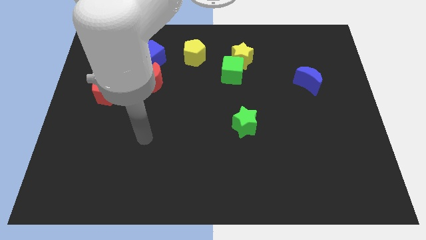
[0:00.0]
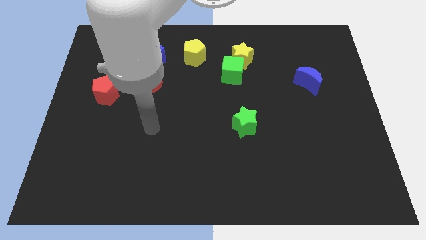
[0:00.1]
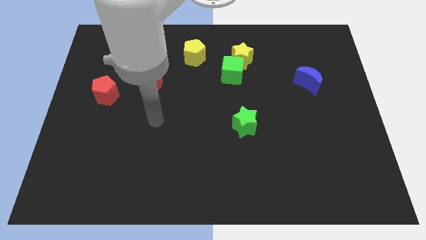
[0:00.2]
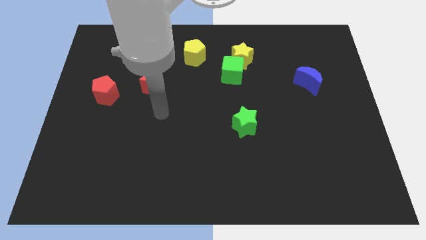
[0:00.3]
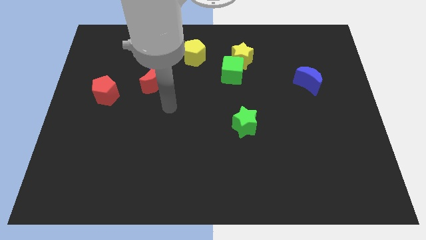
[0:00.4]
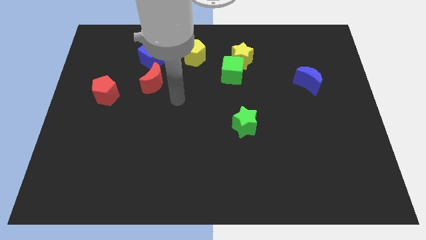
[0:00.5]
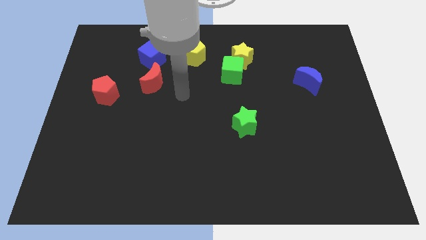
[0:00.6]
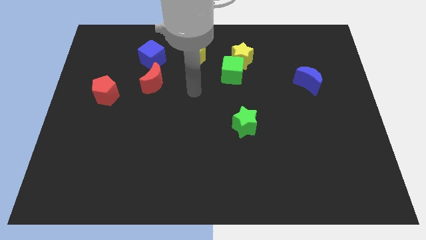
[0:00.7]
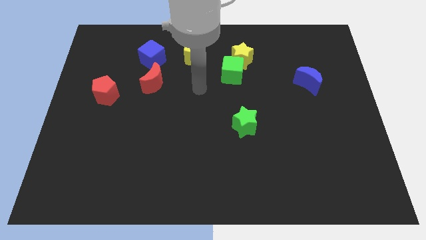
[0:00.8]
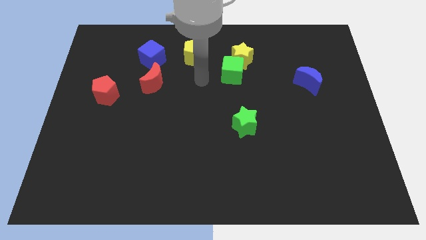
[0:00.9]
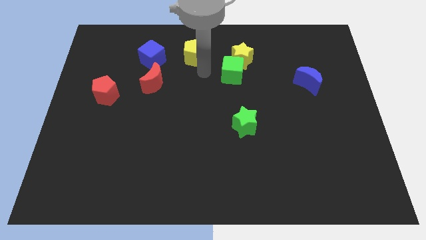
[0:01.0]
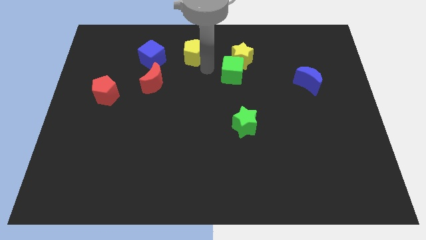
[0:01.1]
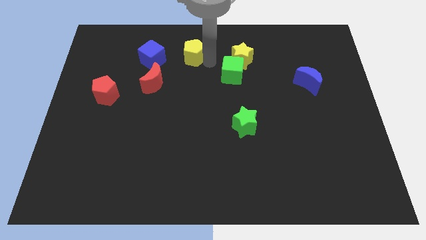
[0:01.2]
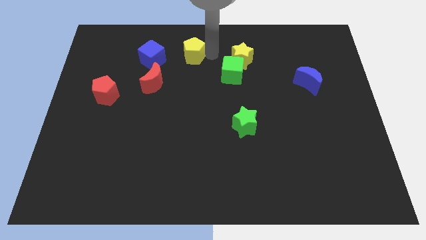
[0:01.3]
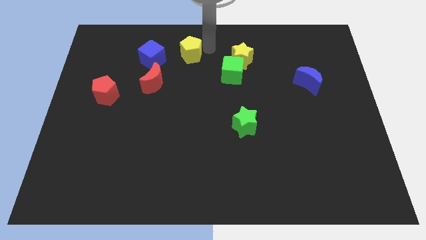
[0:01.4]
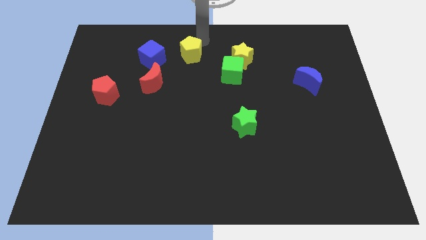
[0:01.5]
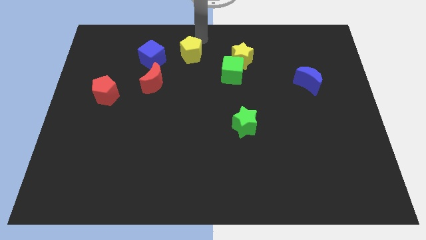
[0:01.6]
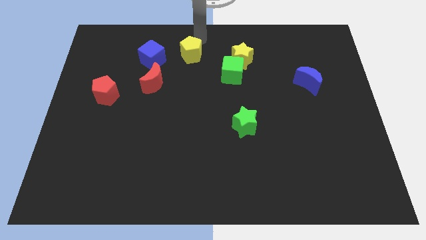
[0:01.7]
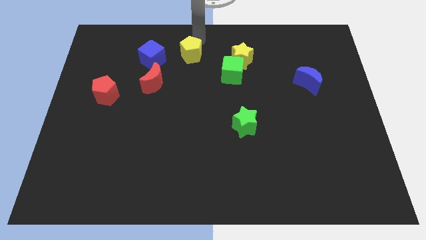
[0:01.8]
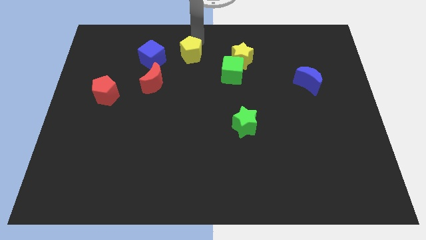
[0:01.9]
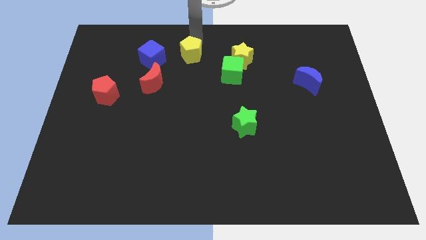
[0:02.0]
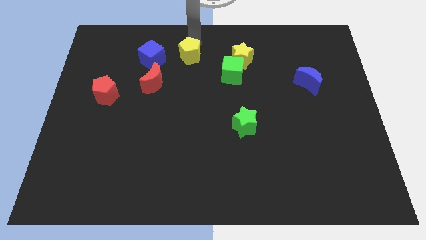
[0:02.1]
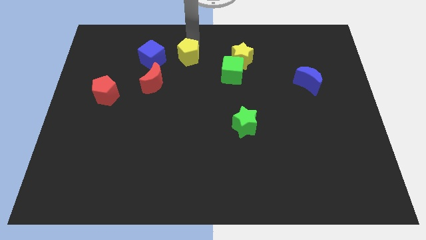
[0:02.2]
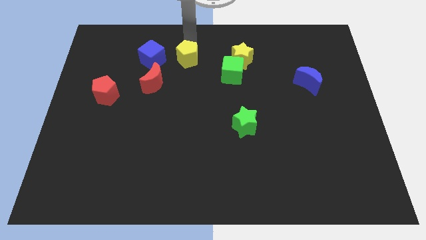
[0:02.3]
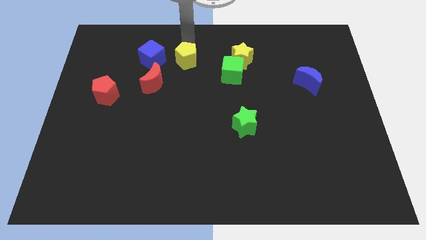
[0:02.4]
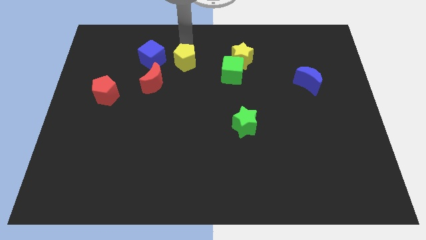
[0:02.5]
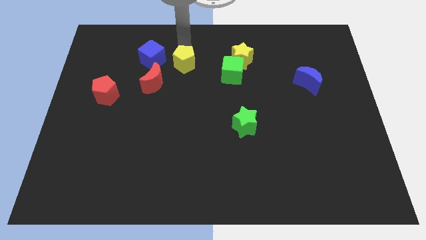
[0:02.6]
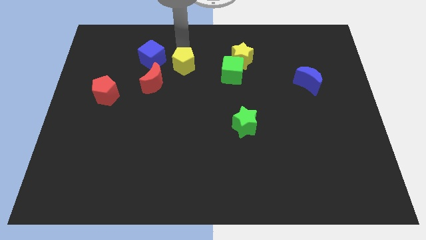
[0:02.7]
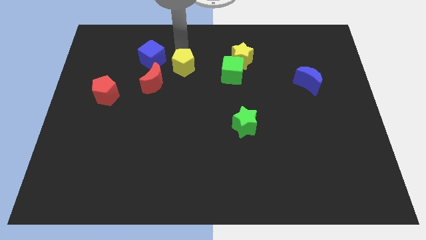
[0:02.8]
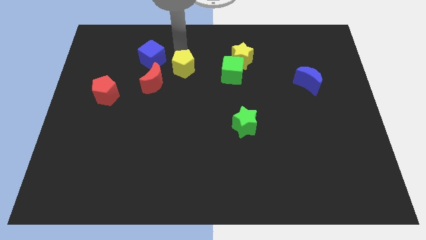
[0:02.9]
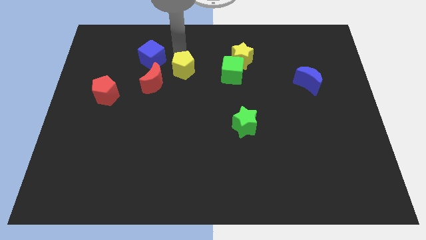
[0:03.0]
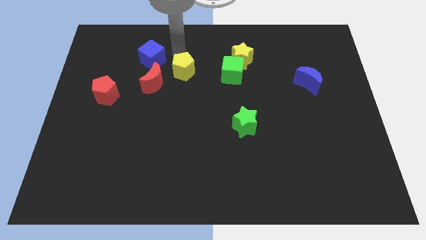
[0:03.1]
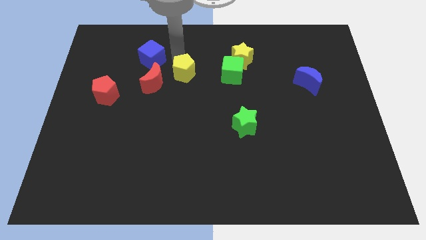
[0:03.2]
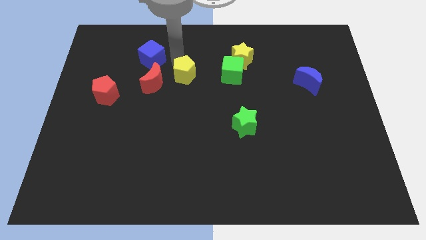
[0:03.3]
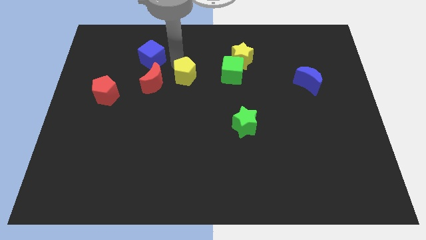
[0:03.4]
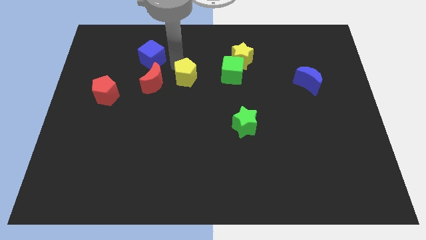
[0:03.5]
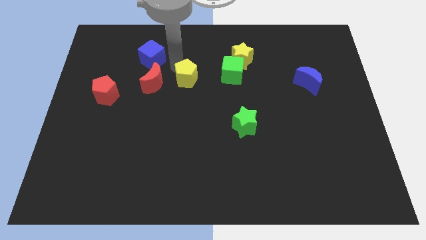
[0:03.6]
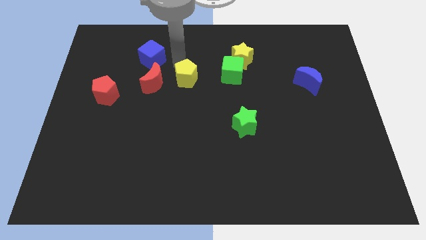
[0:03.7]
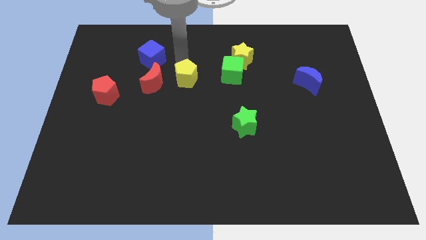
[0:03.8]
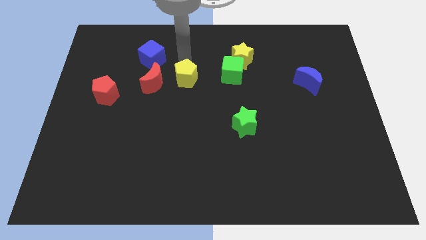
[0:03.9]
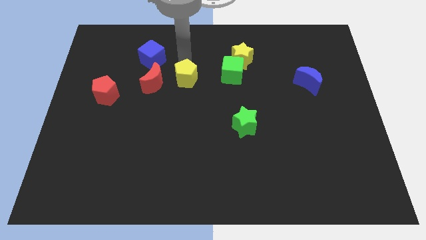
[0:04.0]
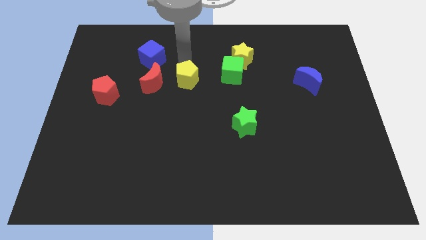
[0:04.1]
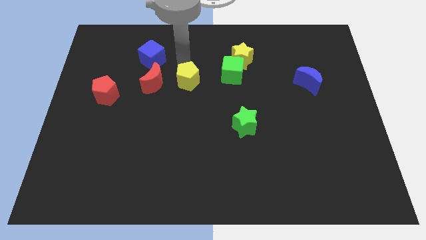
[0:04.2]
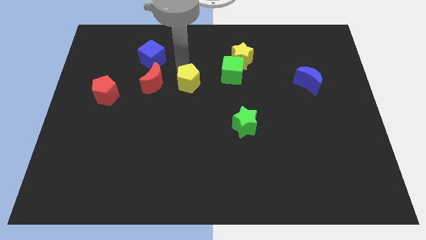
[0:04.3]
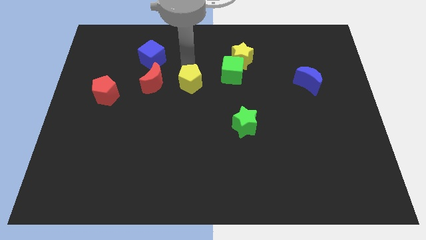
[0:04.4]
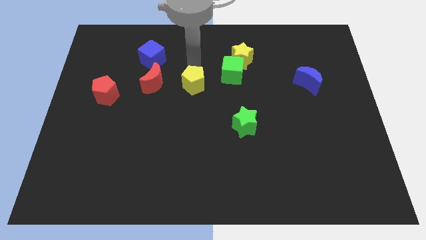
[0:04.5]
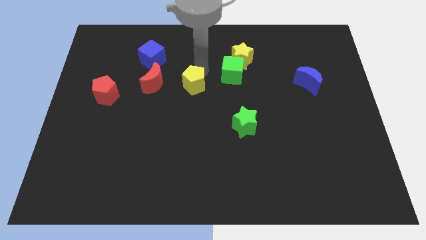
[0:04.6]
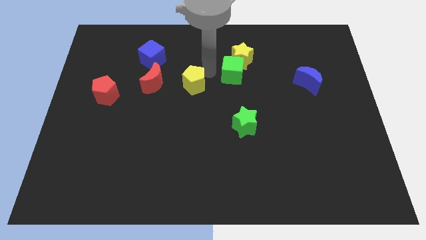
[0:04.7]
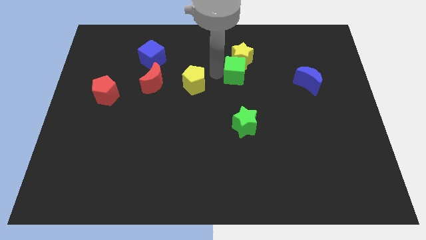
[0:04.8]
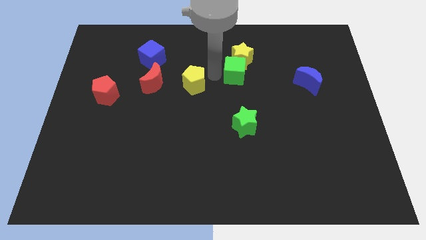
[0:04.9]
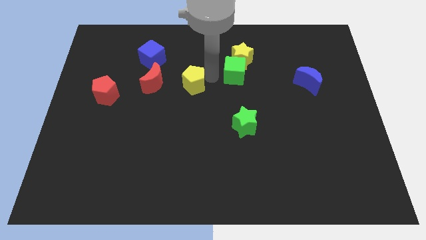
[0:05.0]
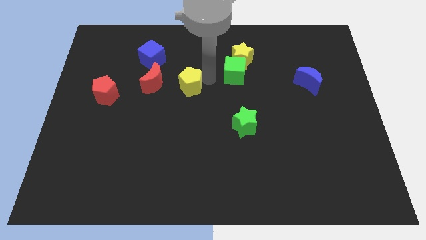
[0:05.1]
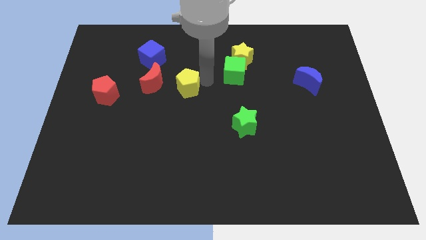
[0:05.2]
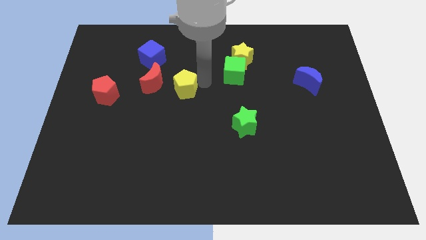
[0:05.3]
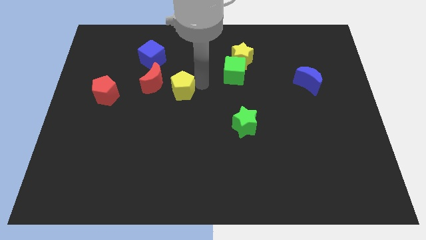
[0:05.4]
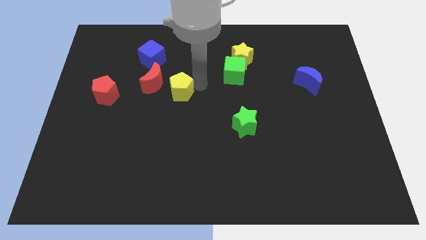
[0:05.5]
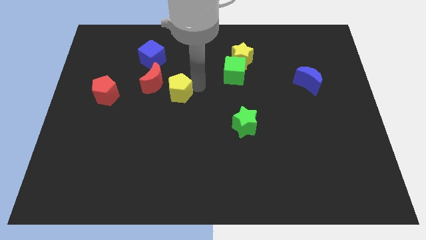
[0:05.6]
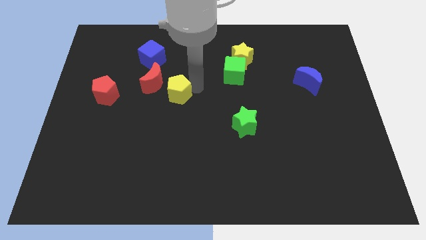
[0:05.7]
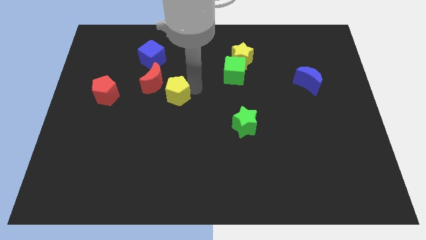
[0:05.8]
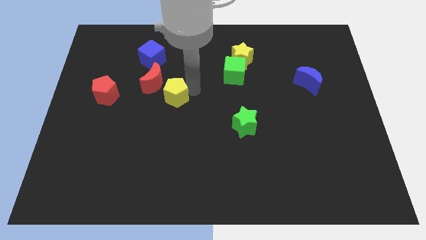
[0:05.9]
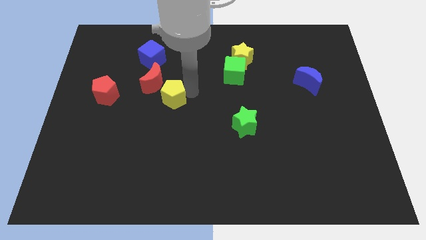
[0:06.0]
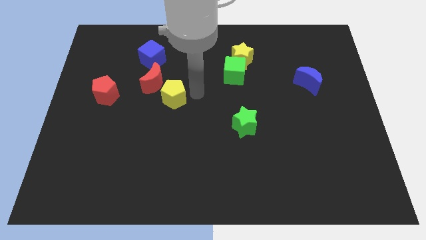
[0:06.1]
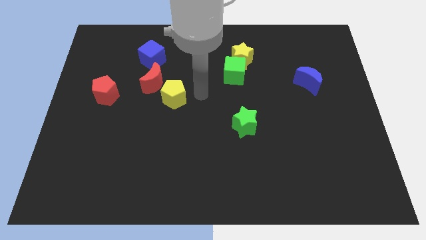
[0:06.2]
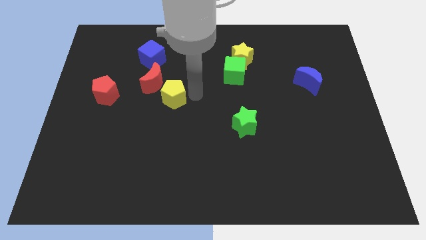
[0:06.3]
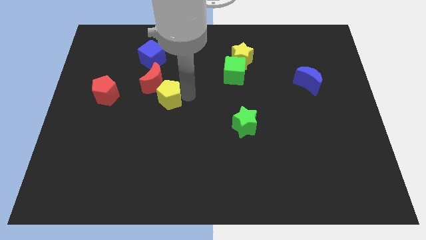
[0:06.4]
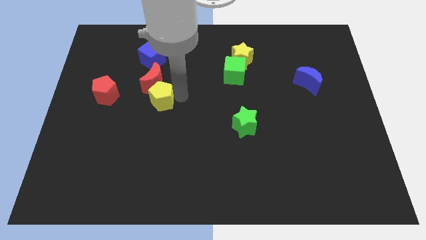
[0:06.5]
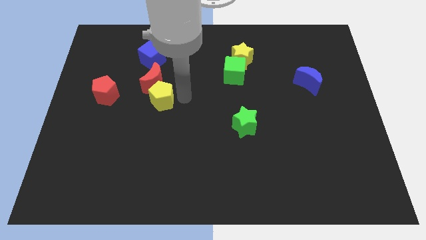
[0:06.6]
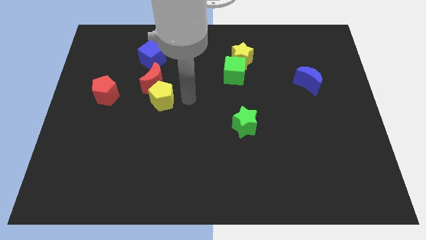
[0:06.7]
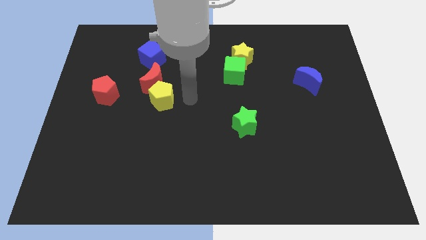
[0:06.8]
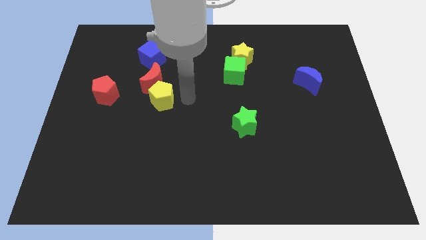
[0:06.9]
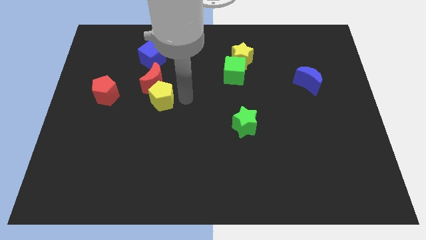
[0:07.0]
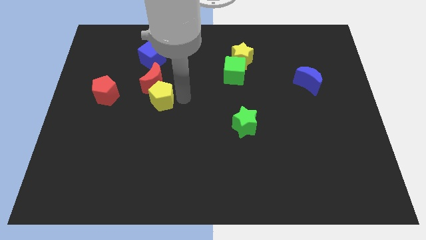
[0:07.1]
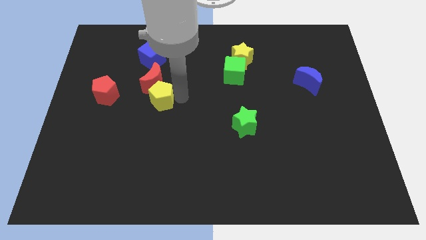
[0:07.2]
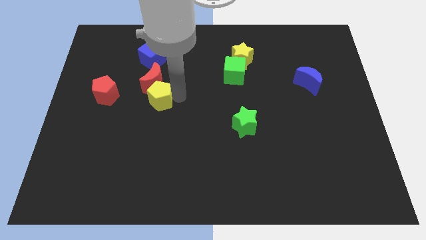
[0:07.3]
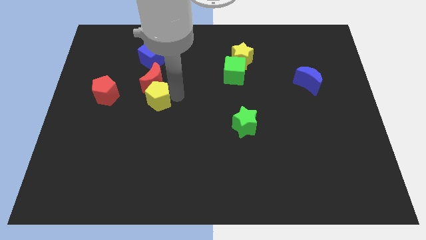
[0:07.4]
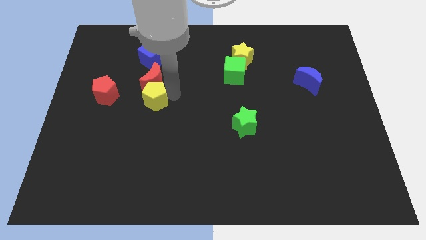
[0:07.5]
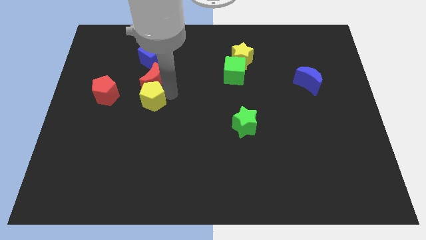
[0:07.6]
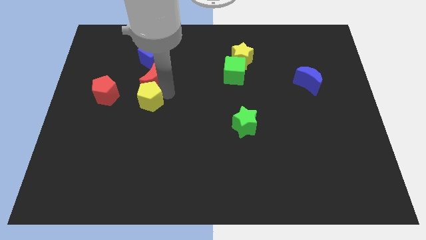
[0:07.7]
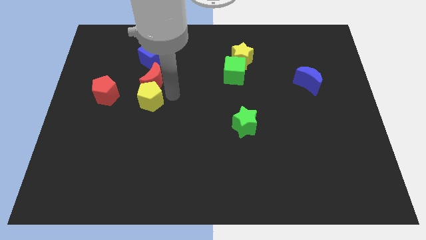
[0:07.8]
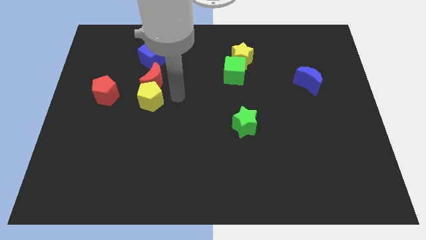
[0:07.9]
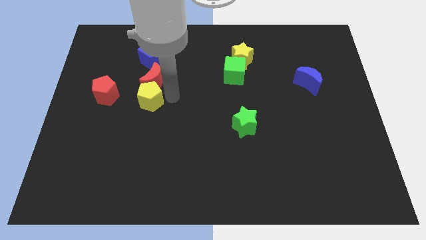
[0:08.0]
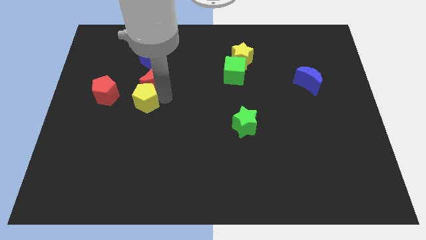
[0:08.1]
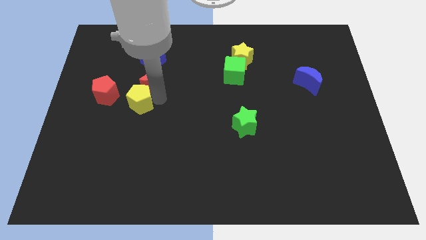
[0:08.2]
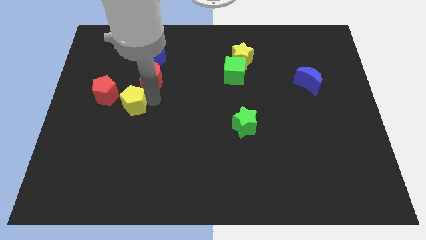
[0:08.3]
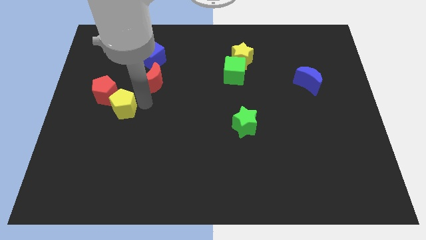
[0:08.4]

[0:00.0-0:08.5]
move the yellow pentagon towards the red pentagon
